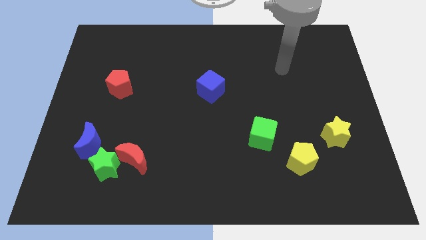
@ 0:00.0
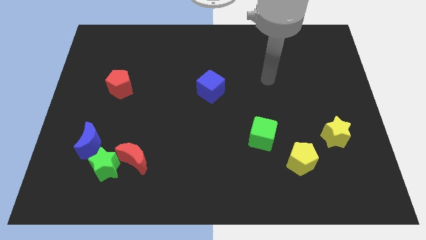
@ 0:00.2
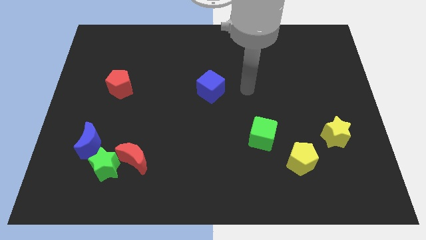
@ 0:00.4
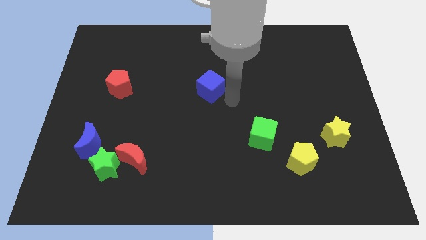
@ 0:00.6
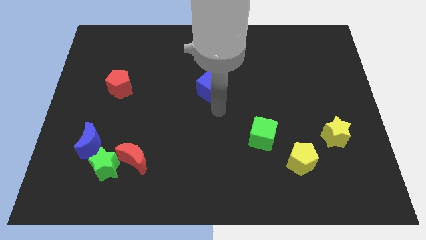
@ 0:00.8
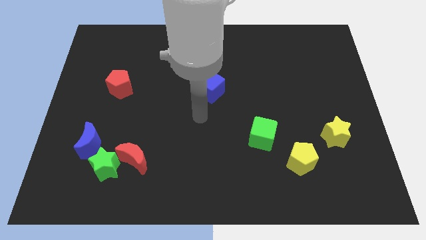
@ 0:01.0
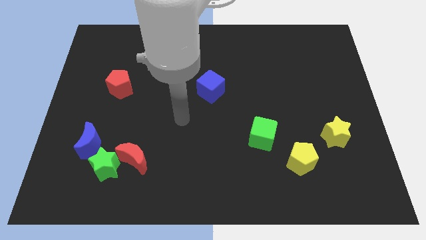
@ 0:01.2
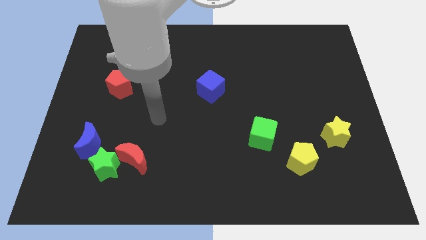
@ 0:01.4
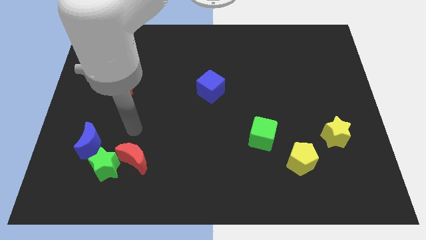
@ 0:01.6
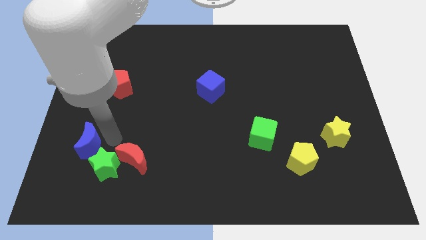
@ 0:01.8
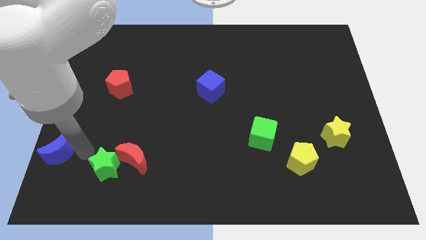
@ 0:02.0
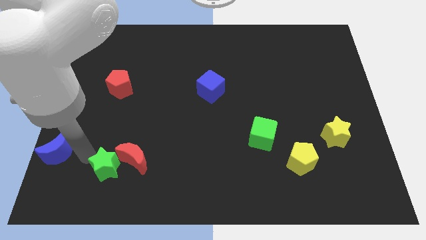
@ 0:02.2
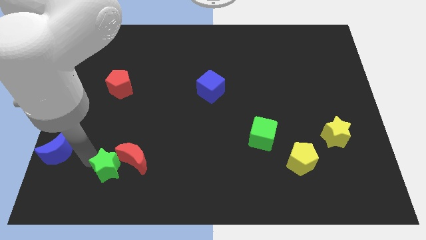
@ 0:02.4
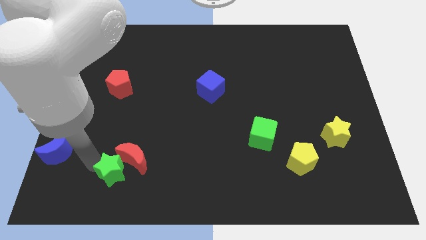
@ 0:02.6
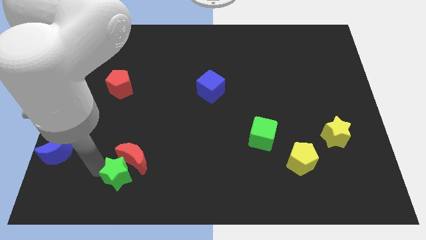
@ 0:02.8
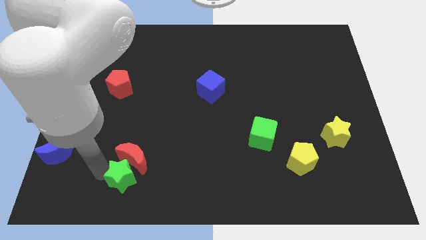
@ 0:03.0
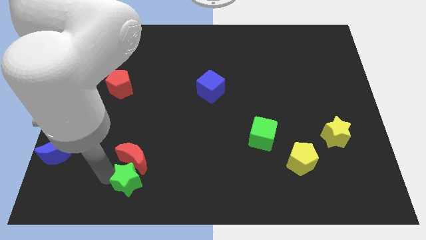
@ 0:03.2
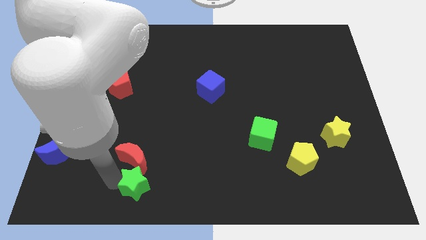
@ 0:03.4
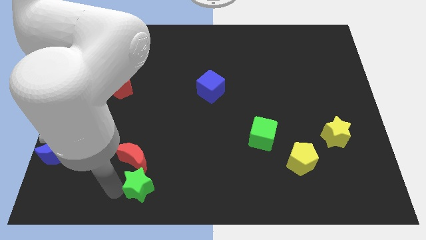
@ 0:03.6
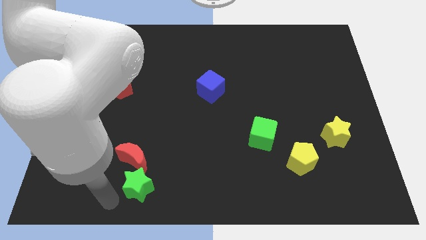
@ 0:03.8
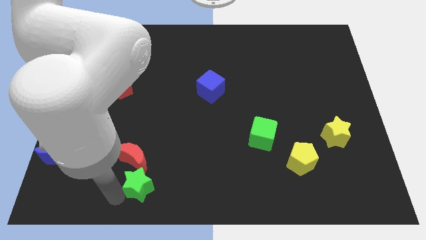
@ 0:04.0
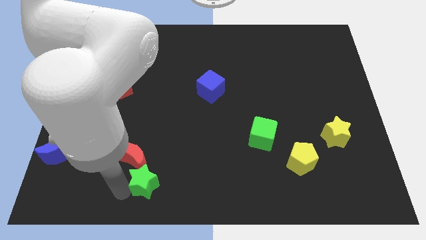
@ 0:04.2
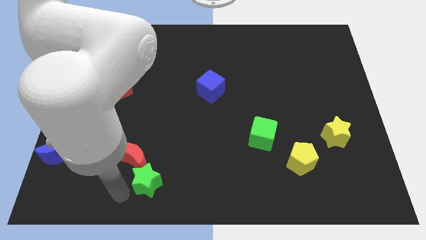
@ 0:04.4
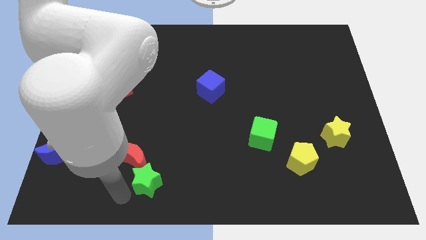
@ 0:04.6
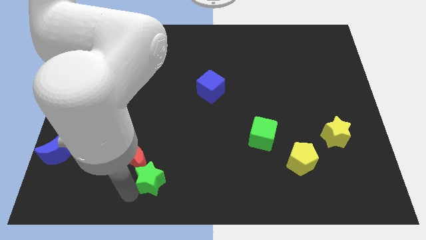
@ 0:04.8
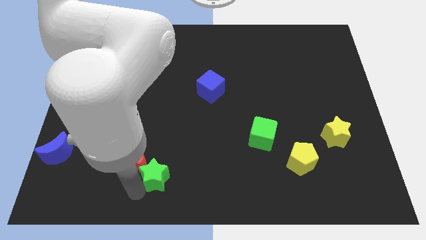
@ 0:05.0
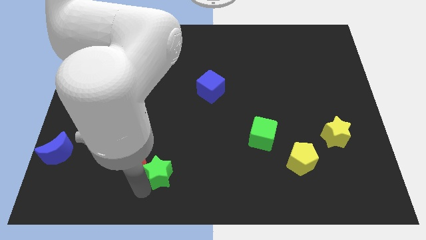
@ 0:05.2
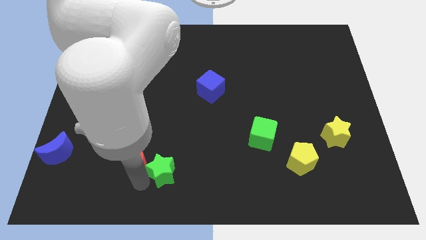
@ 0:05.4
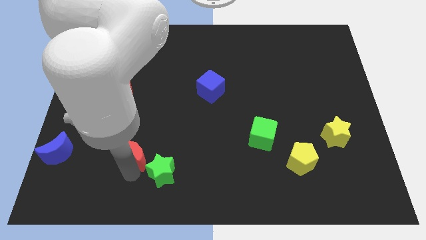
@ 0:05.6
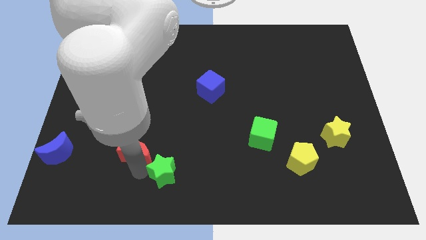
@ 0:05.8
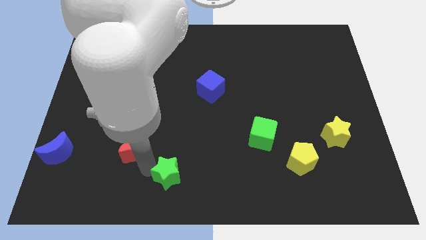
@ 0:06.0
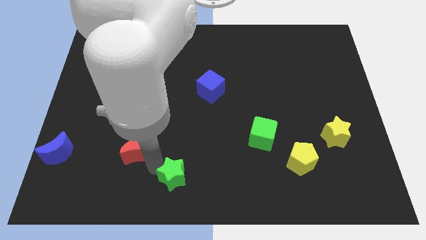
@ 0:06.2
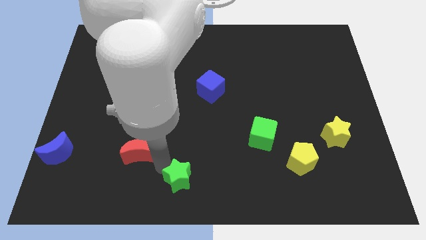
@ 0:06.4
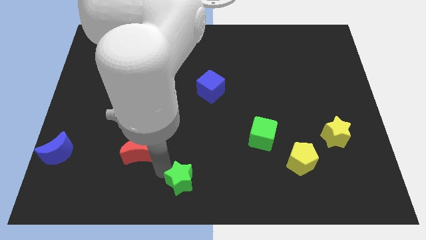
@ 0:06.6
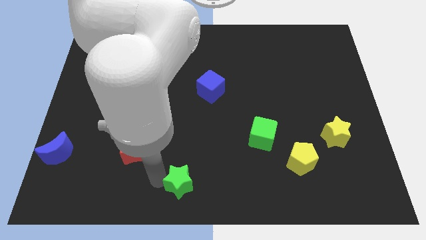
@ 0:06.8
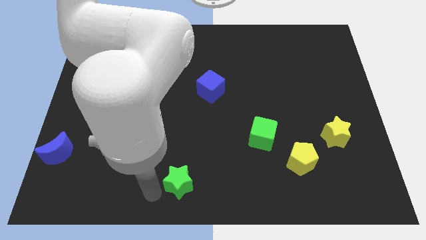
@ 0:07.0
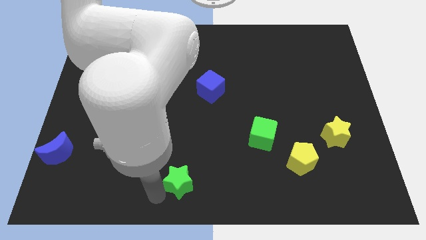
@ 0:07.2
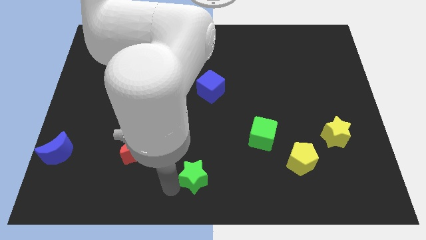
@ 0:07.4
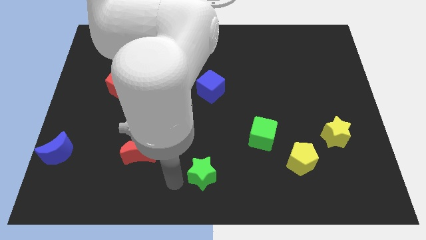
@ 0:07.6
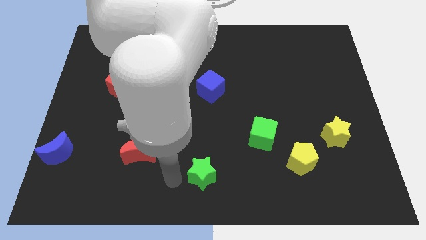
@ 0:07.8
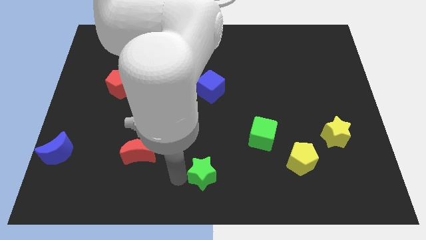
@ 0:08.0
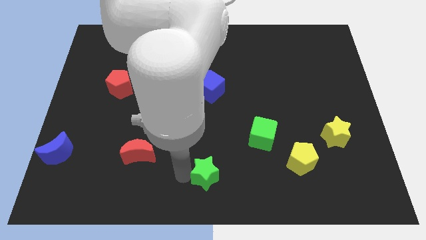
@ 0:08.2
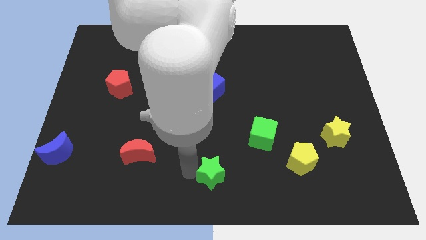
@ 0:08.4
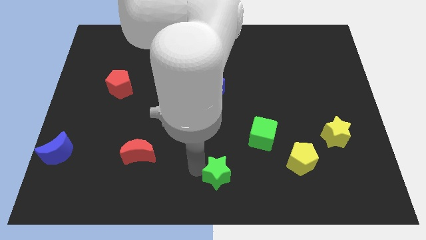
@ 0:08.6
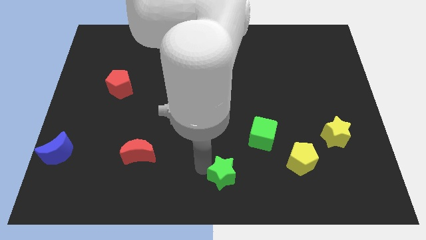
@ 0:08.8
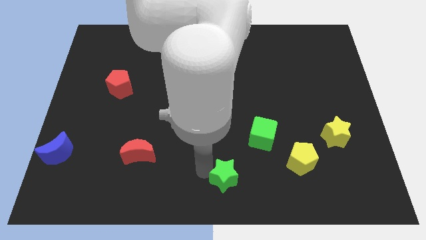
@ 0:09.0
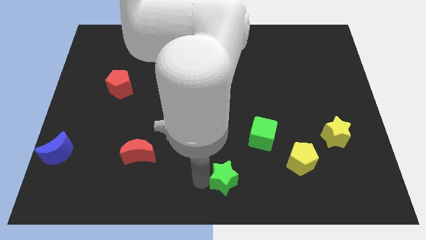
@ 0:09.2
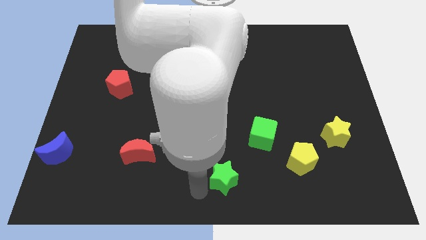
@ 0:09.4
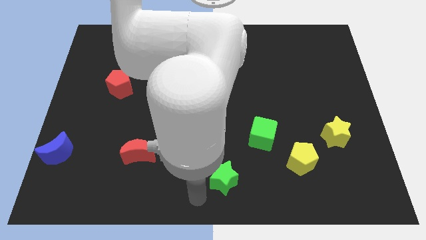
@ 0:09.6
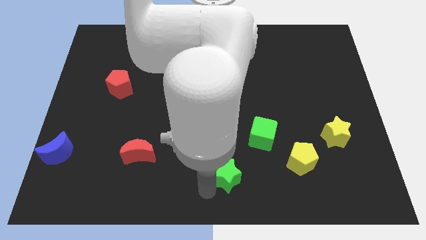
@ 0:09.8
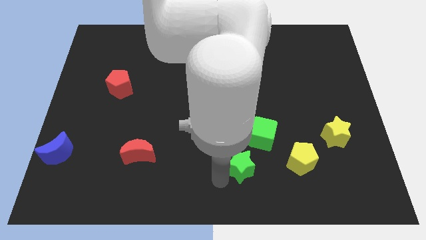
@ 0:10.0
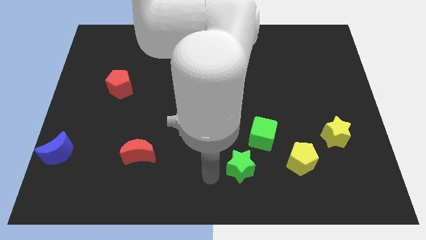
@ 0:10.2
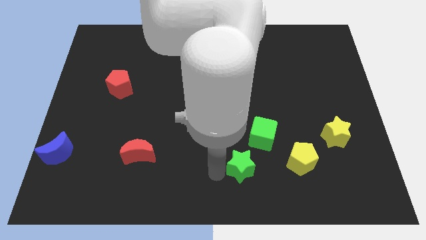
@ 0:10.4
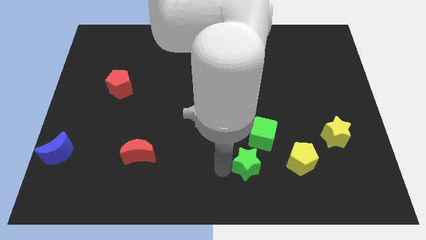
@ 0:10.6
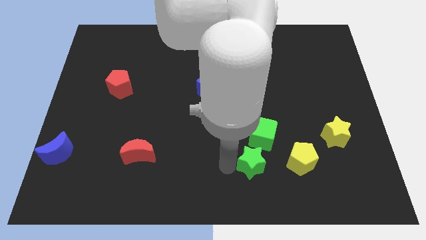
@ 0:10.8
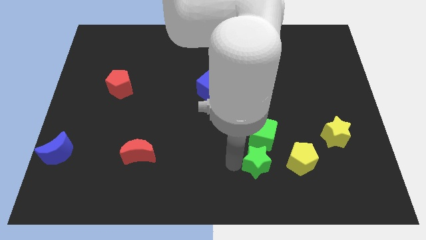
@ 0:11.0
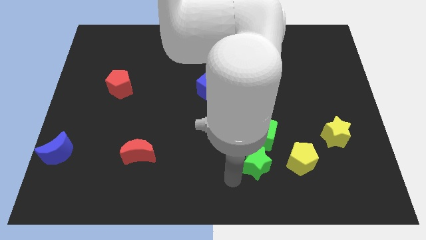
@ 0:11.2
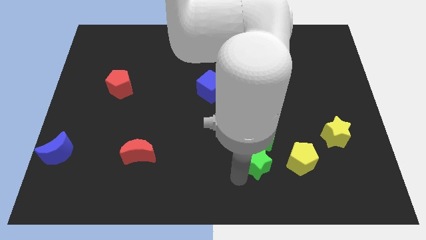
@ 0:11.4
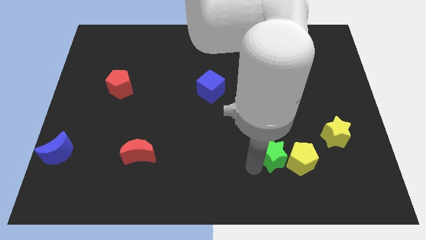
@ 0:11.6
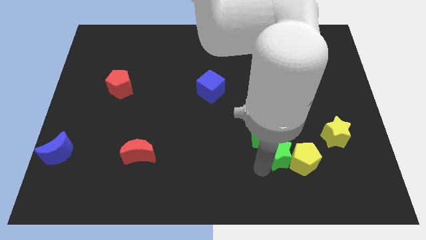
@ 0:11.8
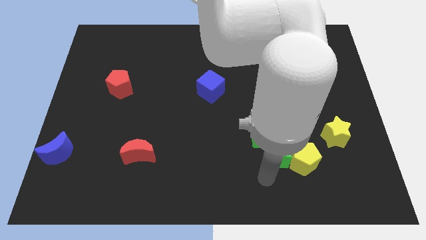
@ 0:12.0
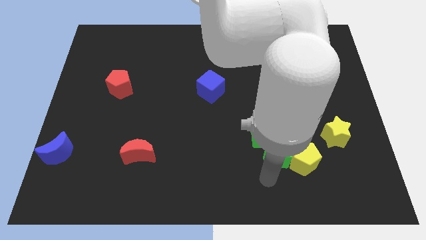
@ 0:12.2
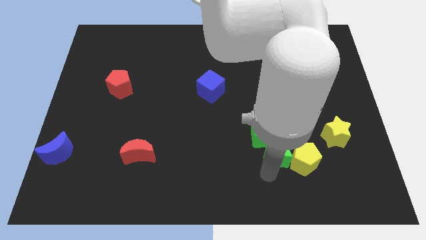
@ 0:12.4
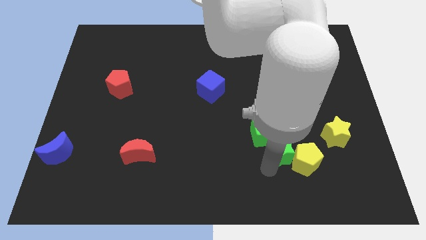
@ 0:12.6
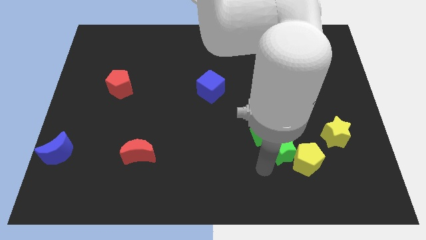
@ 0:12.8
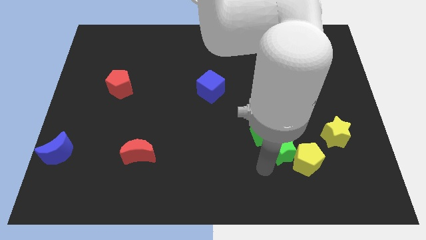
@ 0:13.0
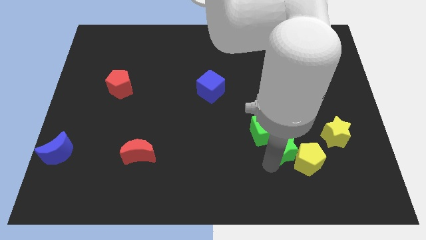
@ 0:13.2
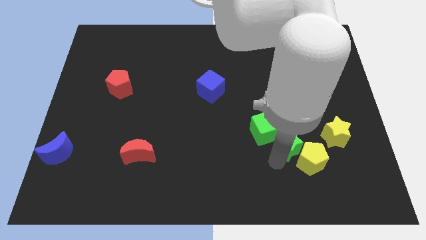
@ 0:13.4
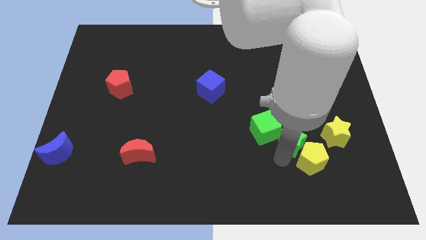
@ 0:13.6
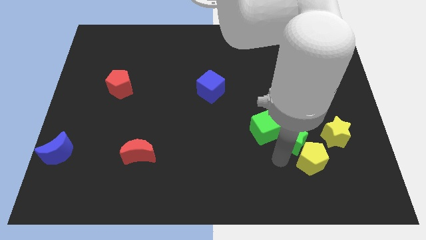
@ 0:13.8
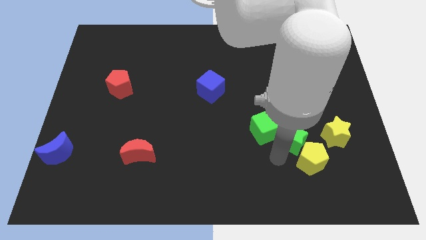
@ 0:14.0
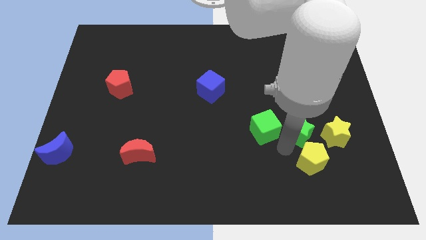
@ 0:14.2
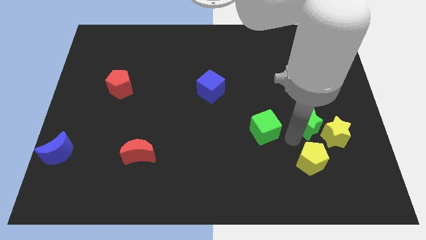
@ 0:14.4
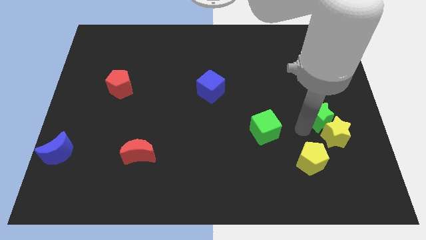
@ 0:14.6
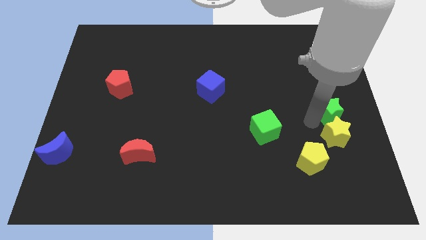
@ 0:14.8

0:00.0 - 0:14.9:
push the green star to the right side of the board
